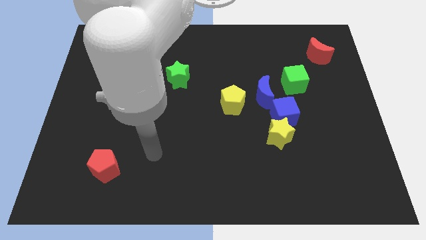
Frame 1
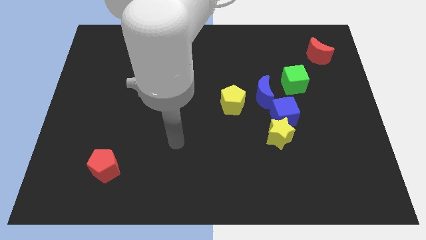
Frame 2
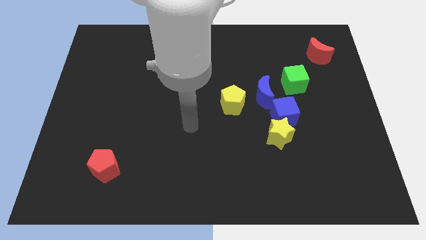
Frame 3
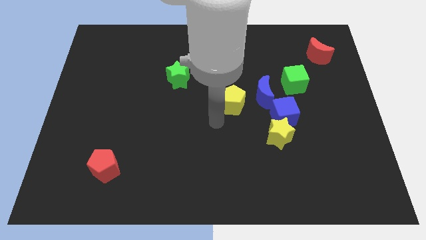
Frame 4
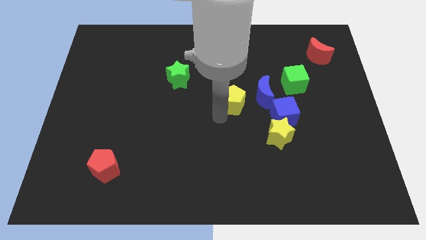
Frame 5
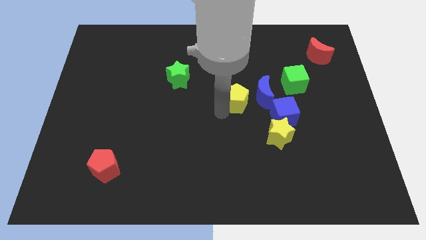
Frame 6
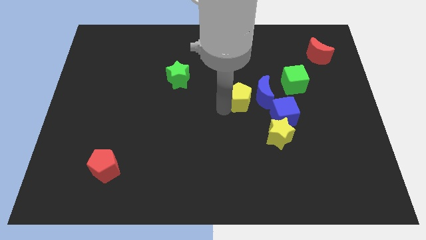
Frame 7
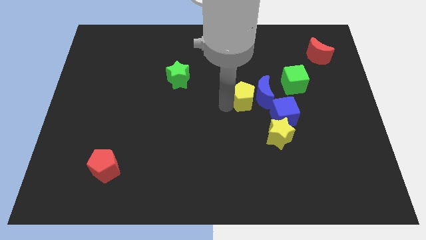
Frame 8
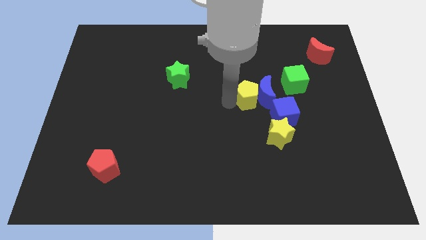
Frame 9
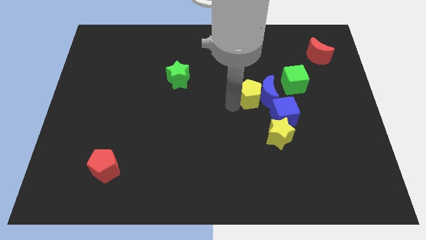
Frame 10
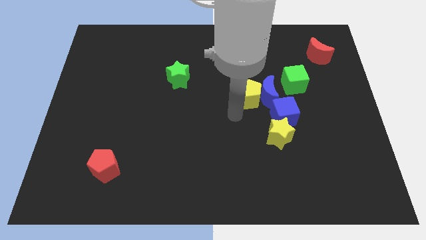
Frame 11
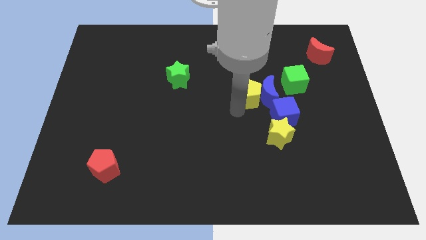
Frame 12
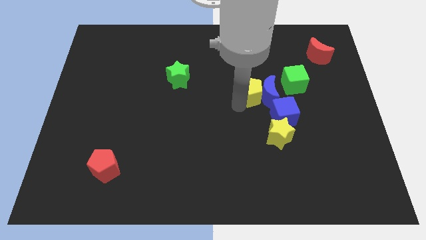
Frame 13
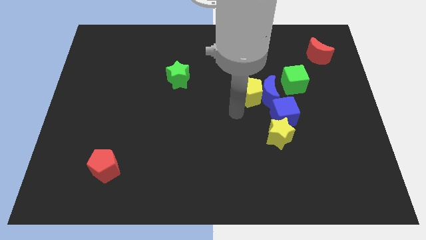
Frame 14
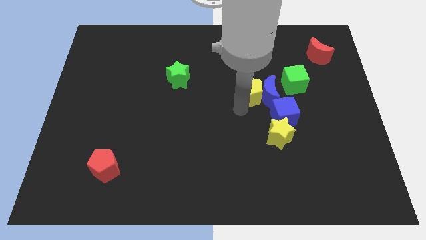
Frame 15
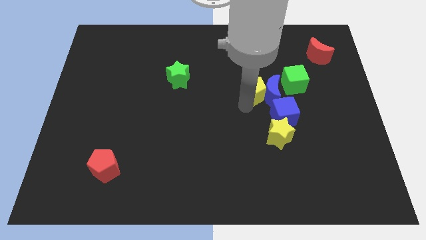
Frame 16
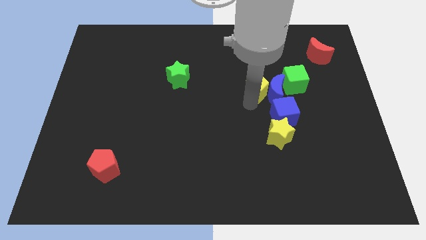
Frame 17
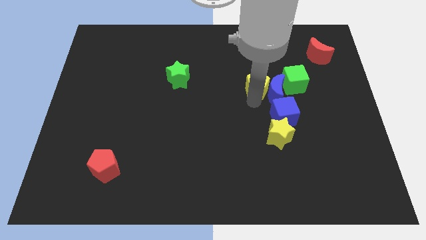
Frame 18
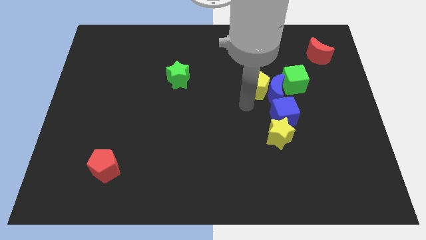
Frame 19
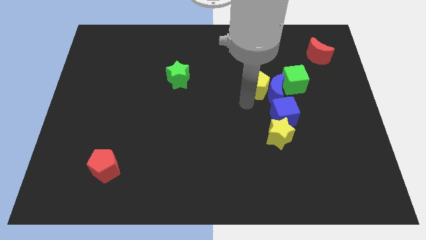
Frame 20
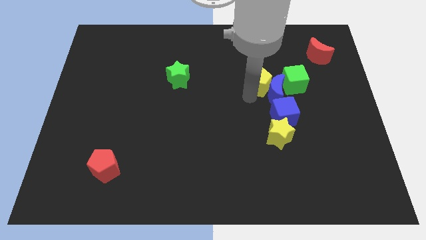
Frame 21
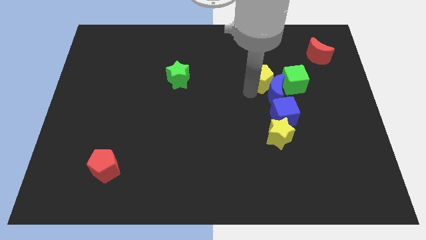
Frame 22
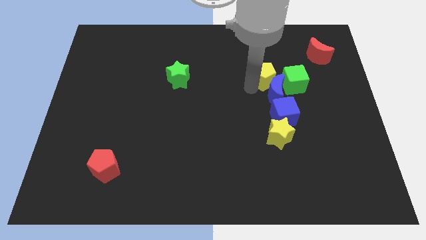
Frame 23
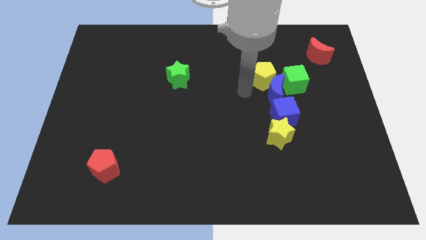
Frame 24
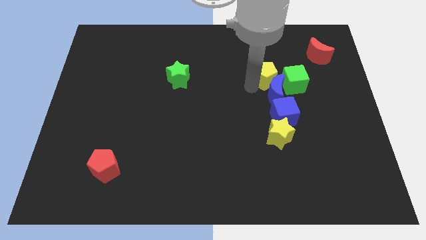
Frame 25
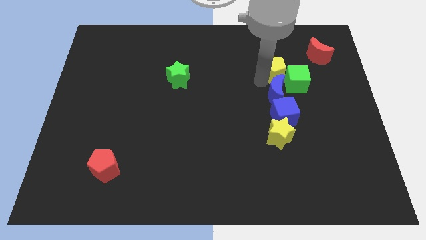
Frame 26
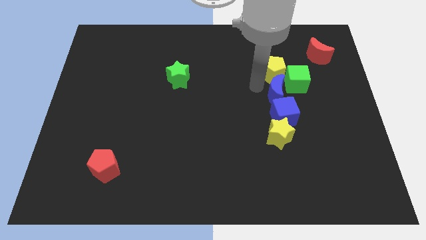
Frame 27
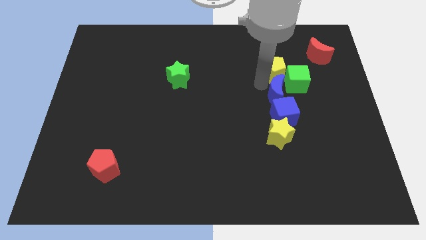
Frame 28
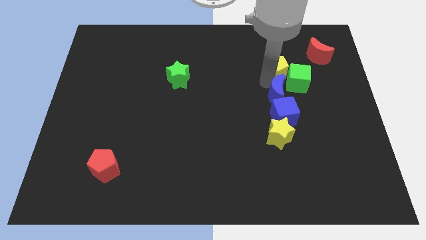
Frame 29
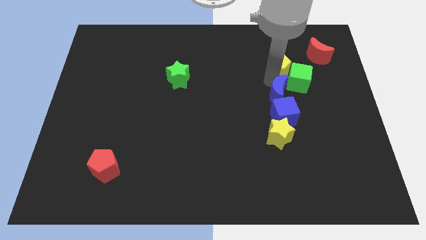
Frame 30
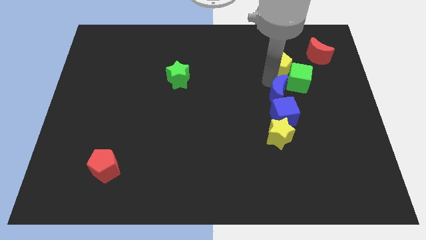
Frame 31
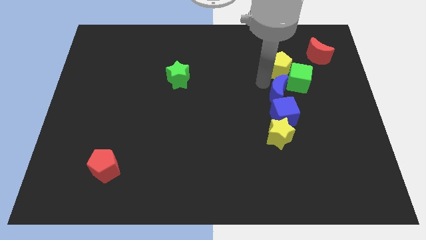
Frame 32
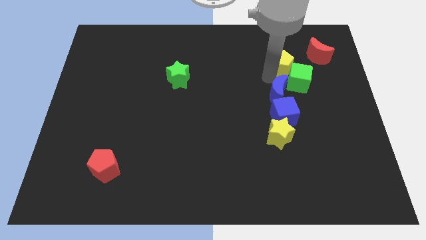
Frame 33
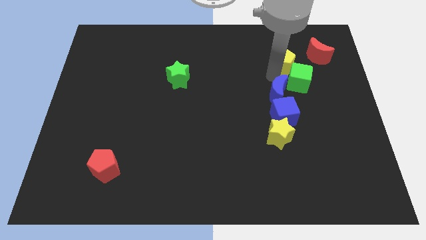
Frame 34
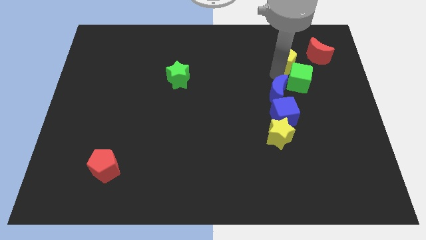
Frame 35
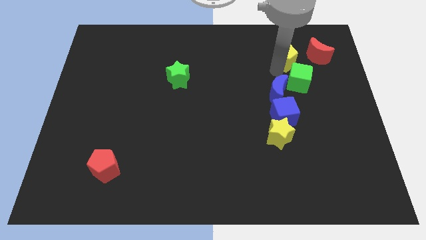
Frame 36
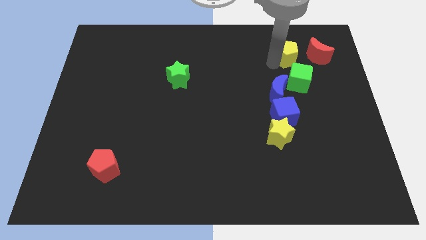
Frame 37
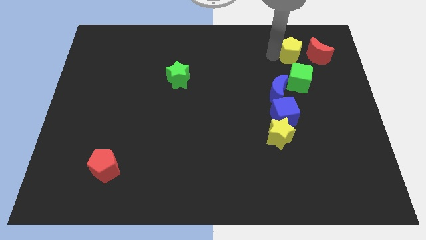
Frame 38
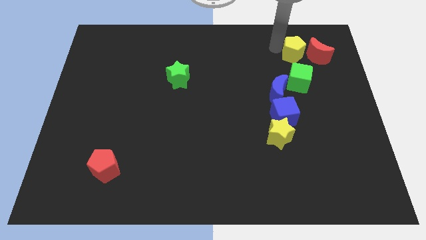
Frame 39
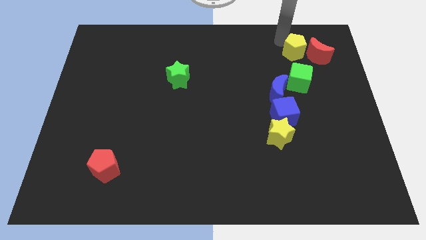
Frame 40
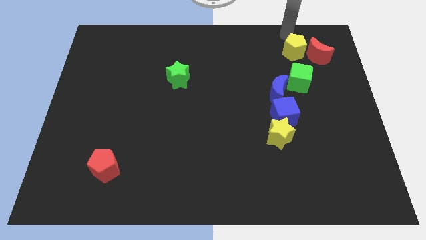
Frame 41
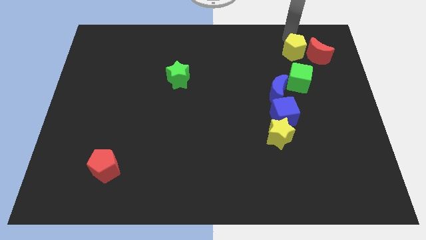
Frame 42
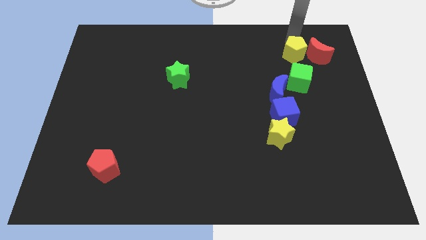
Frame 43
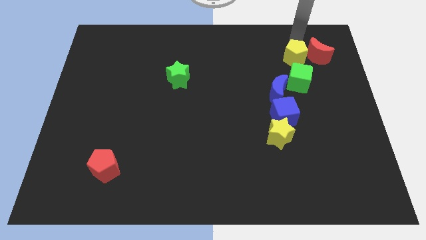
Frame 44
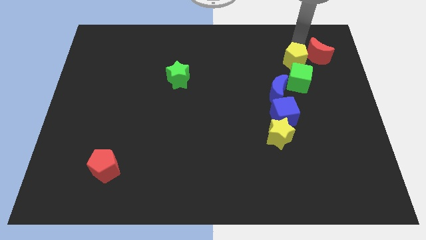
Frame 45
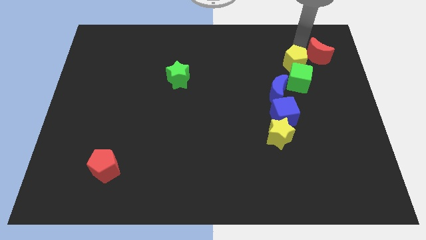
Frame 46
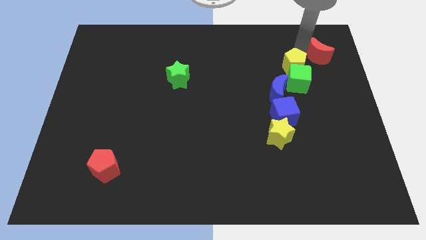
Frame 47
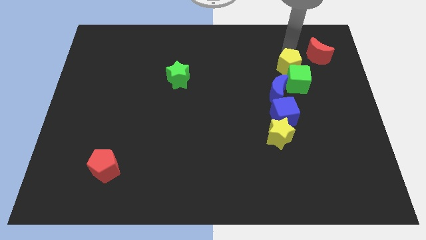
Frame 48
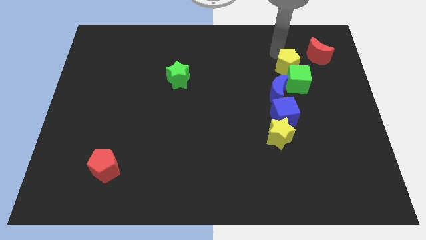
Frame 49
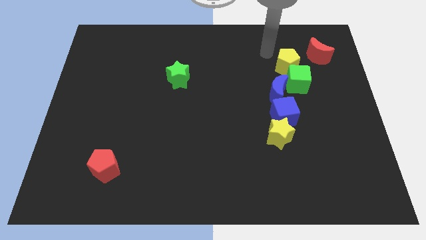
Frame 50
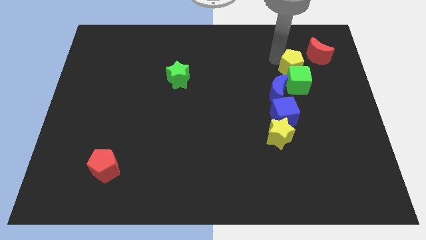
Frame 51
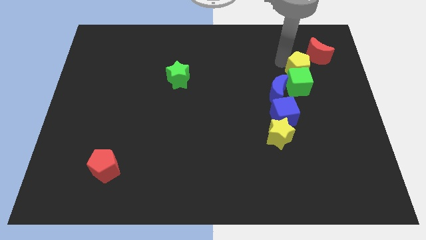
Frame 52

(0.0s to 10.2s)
slide the yellow pentagon a little right

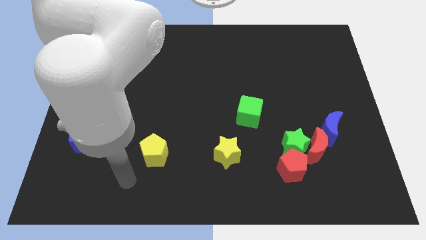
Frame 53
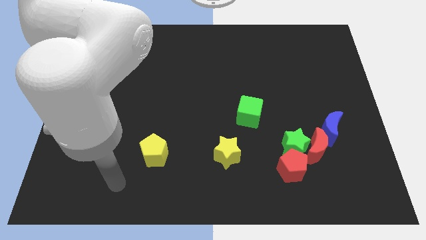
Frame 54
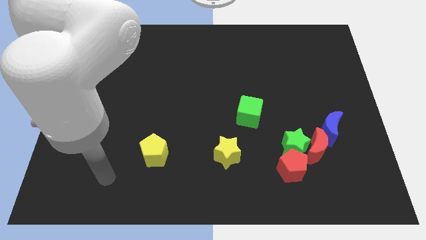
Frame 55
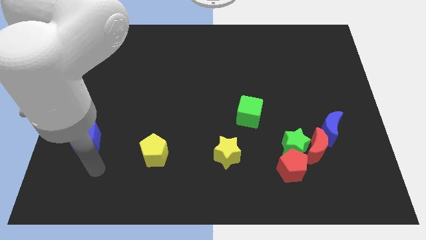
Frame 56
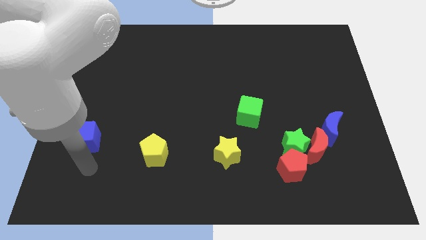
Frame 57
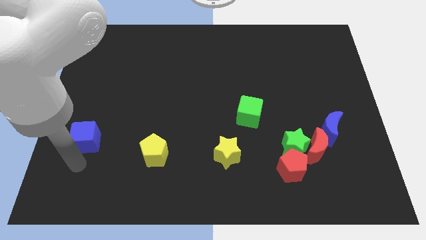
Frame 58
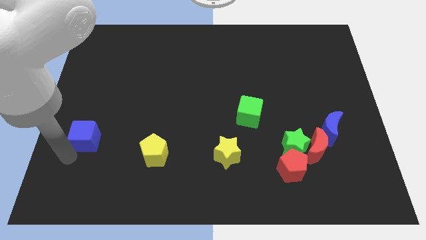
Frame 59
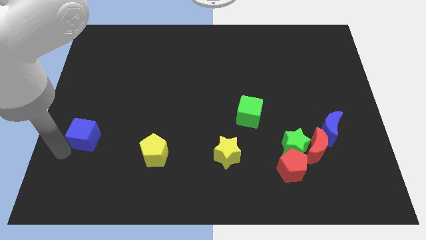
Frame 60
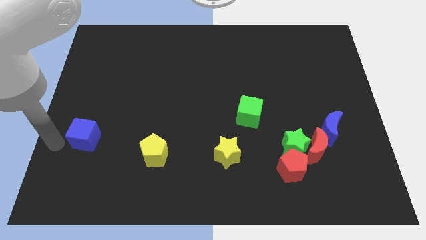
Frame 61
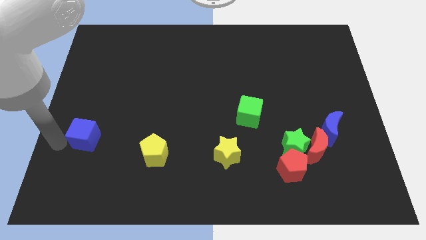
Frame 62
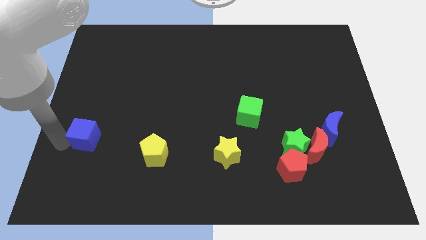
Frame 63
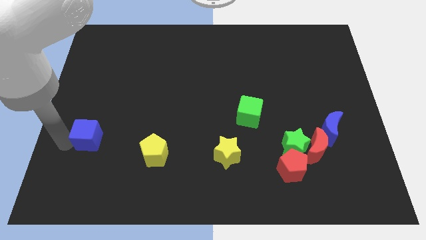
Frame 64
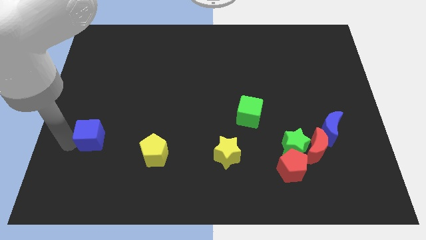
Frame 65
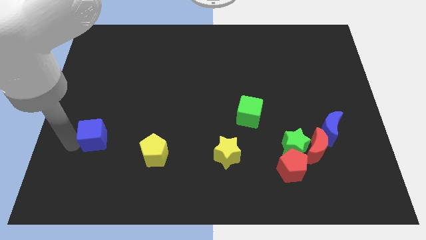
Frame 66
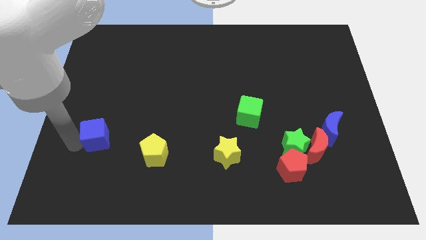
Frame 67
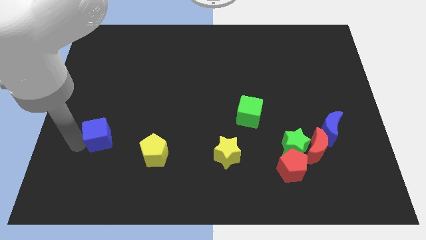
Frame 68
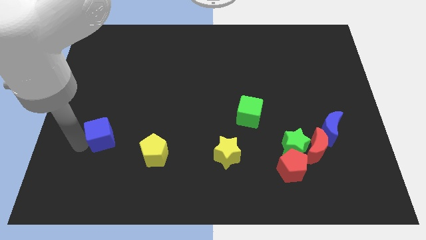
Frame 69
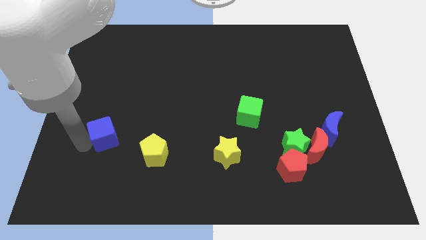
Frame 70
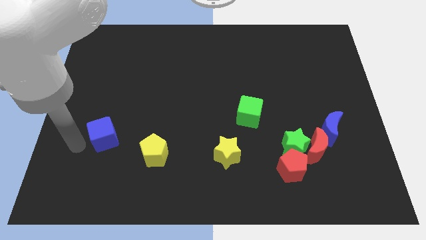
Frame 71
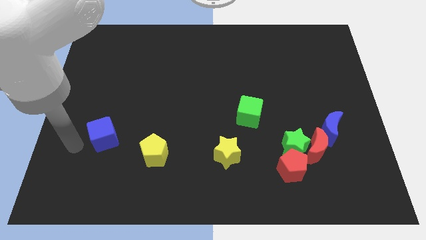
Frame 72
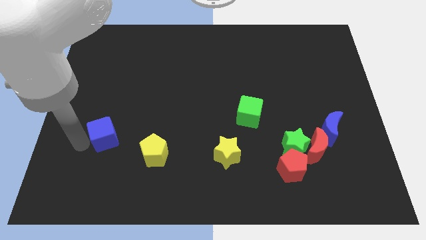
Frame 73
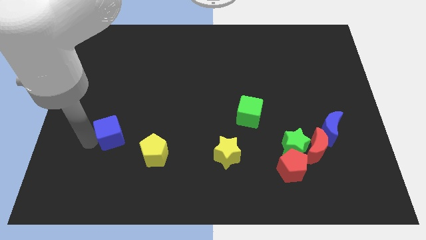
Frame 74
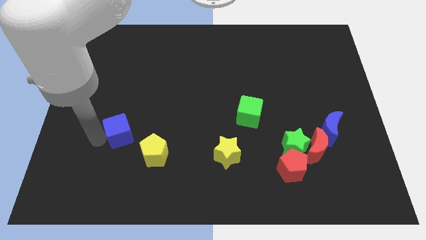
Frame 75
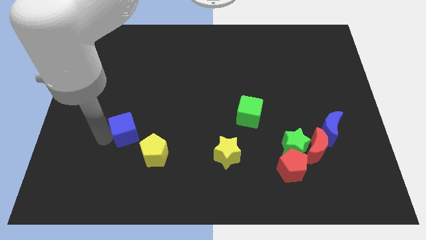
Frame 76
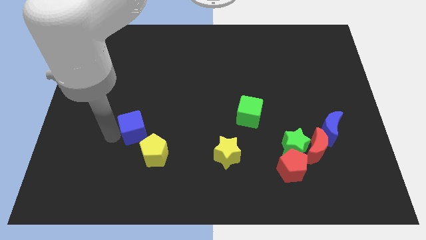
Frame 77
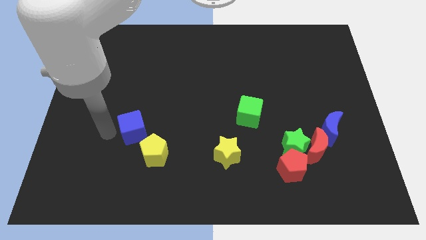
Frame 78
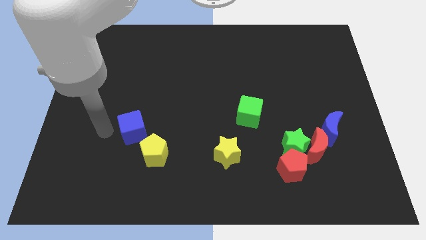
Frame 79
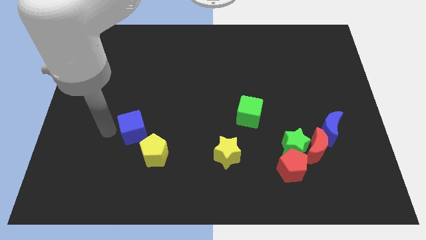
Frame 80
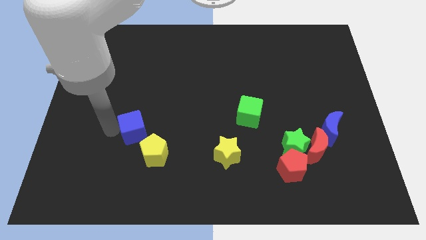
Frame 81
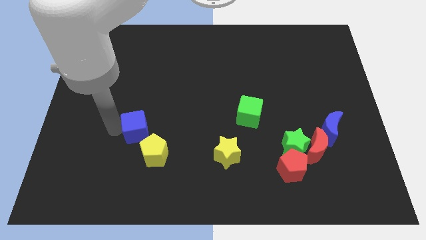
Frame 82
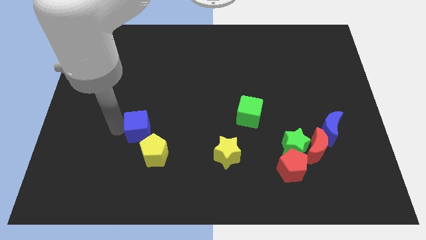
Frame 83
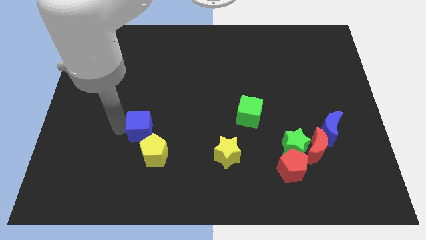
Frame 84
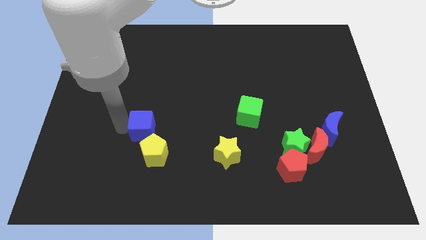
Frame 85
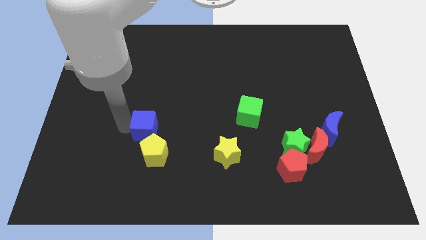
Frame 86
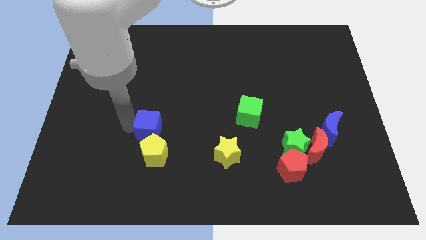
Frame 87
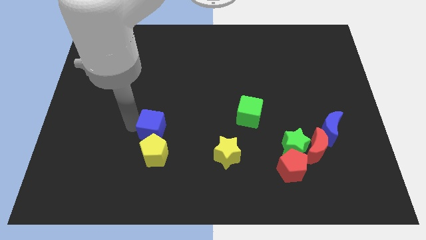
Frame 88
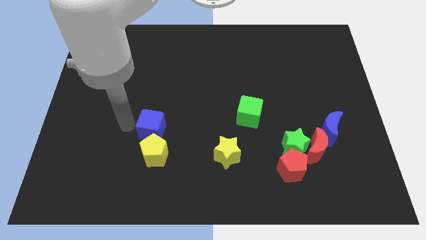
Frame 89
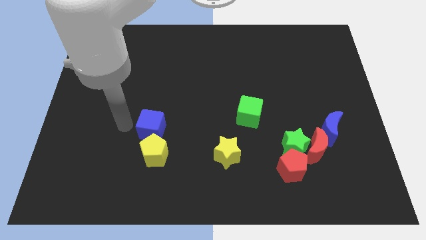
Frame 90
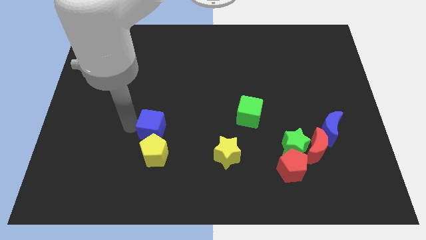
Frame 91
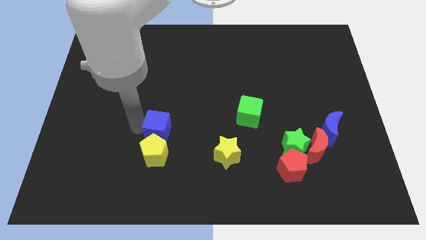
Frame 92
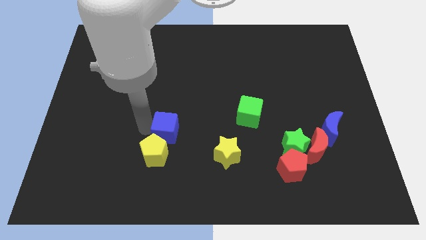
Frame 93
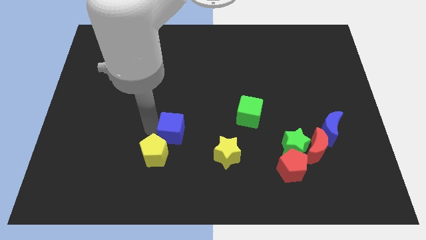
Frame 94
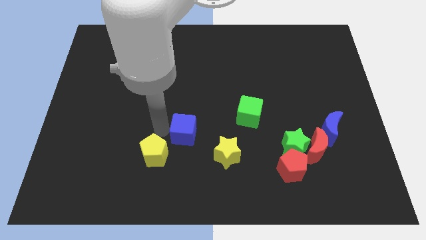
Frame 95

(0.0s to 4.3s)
slide the blue cube to the right
